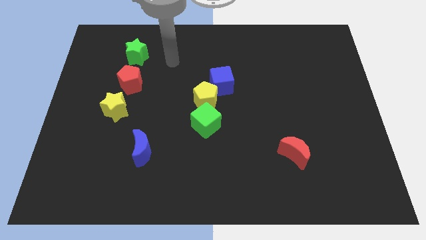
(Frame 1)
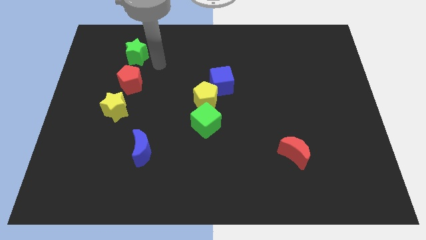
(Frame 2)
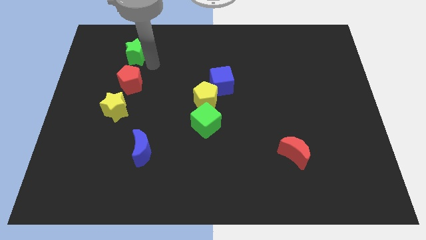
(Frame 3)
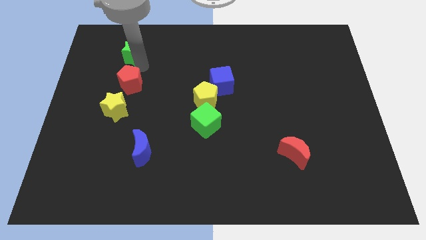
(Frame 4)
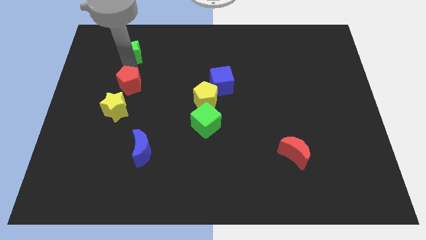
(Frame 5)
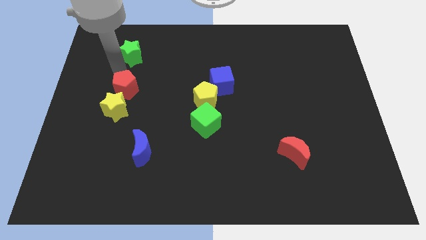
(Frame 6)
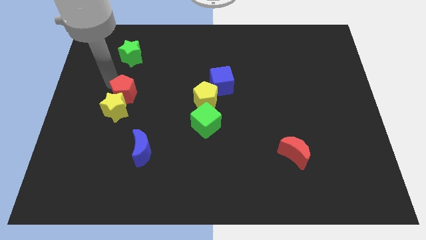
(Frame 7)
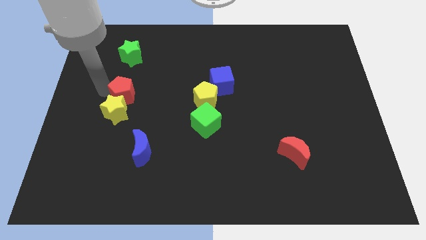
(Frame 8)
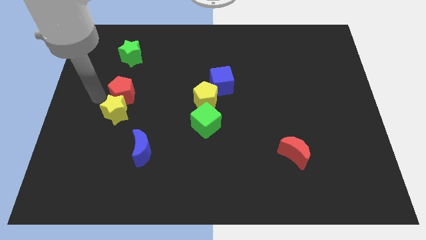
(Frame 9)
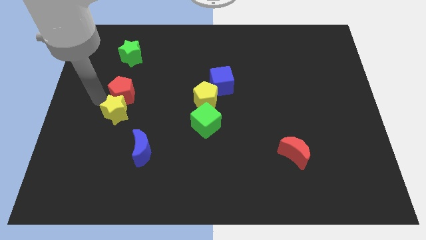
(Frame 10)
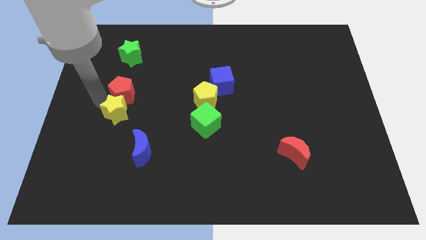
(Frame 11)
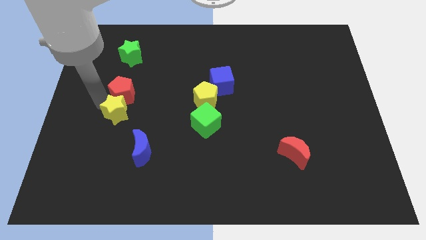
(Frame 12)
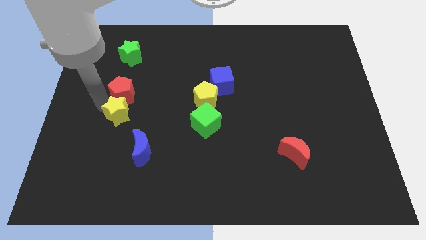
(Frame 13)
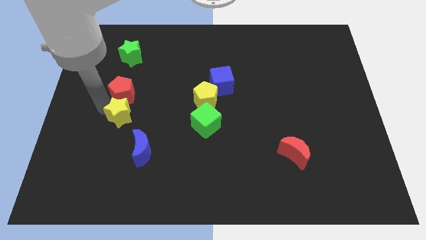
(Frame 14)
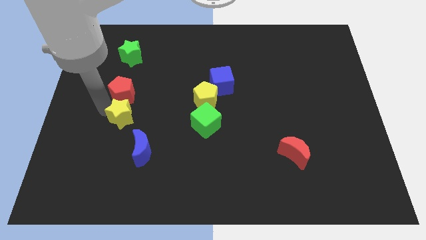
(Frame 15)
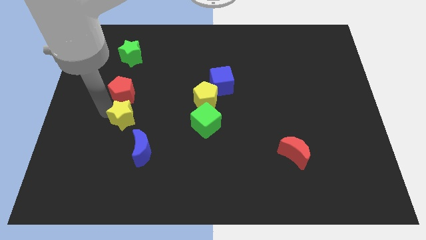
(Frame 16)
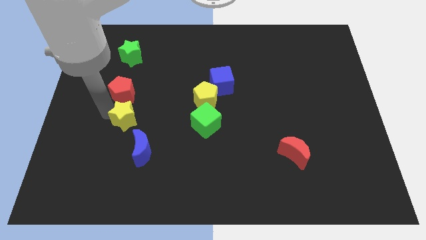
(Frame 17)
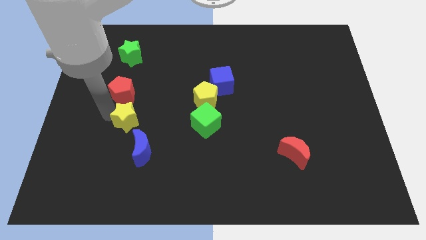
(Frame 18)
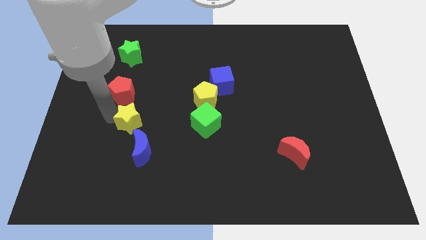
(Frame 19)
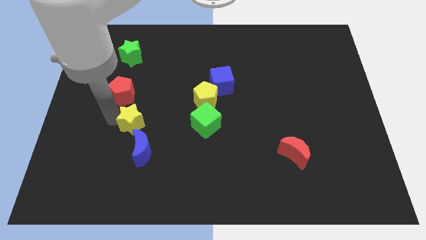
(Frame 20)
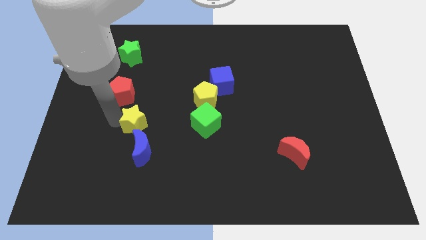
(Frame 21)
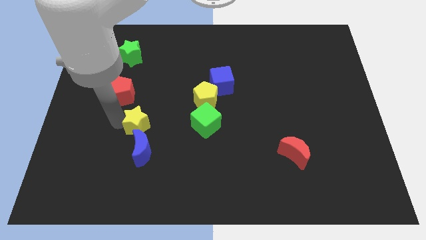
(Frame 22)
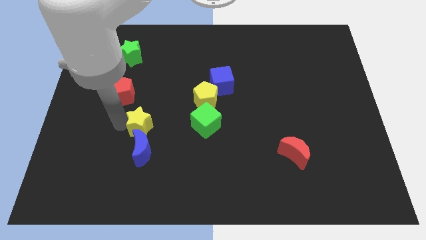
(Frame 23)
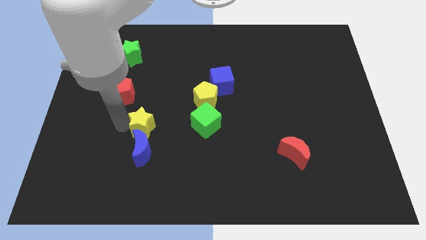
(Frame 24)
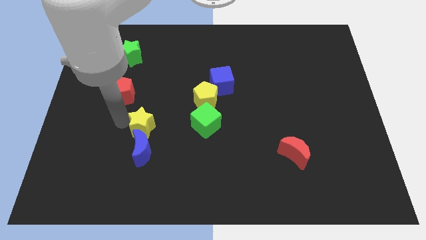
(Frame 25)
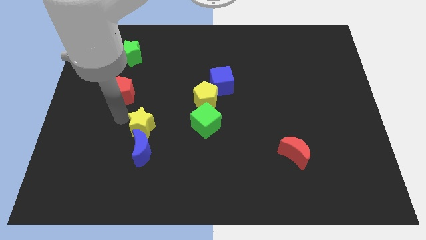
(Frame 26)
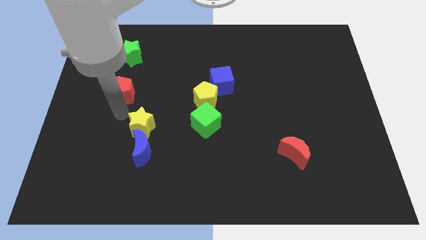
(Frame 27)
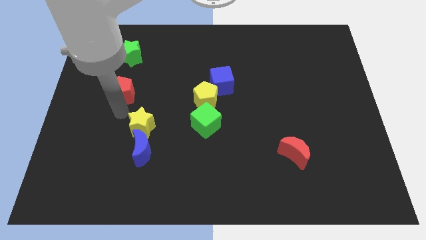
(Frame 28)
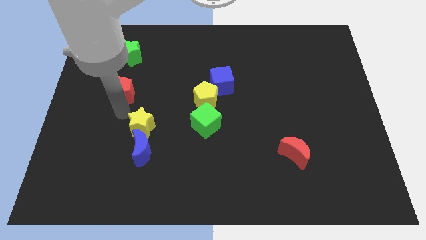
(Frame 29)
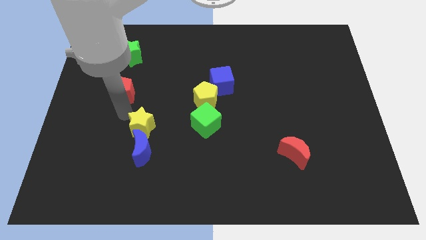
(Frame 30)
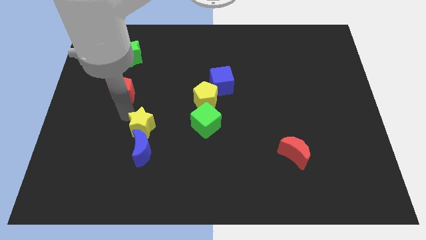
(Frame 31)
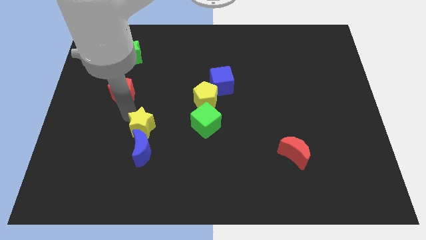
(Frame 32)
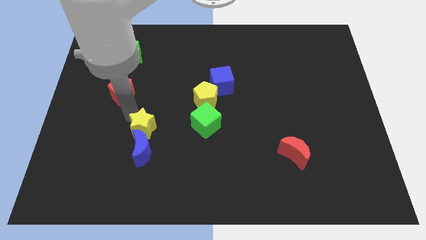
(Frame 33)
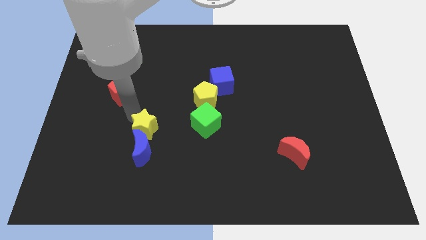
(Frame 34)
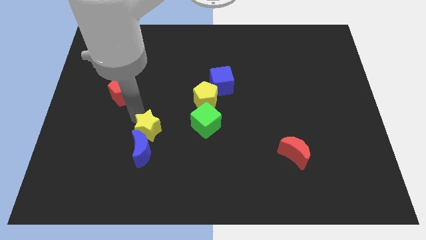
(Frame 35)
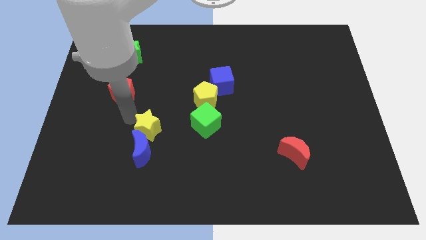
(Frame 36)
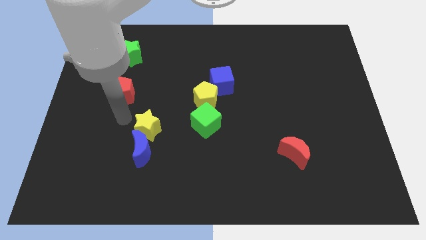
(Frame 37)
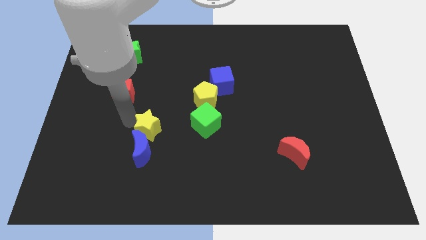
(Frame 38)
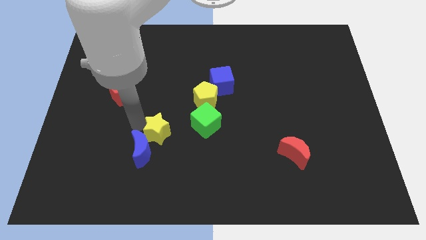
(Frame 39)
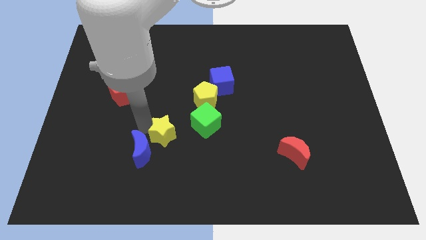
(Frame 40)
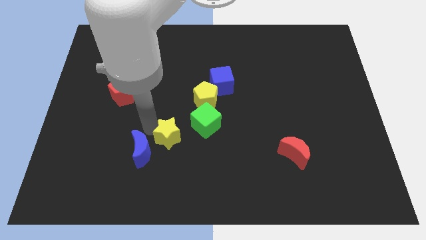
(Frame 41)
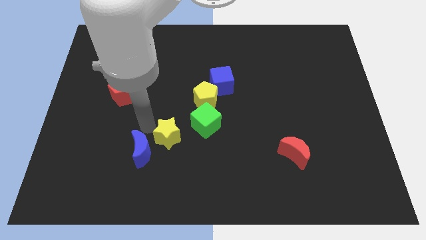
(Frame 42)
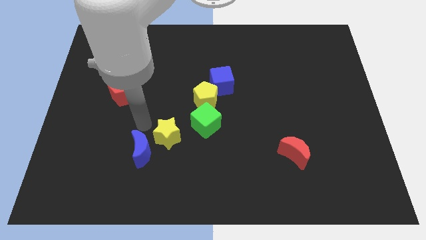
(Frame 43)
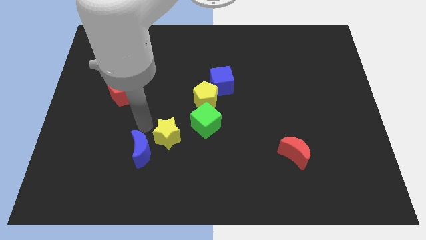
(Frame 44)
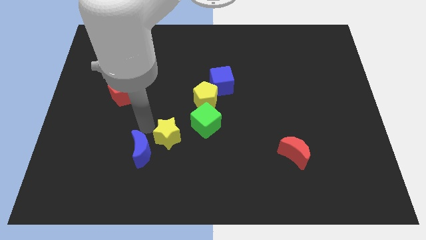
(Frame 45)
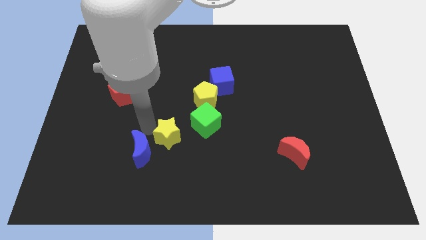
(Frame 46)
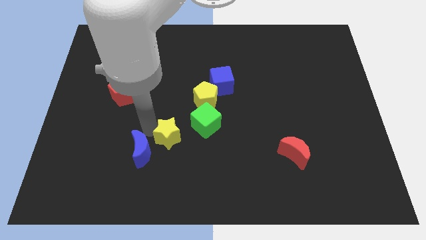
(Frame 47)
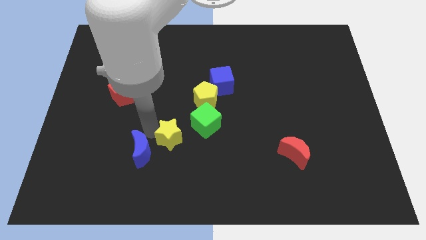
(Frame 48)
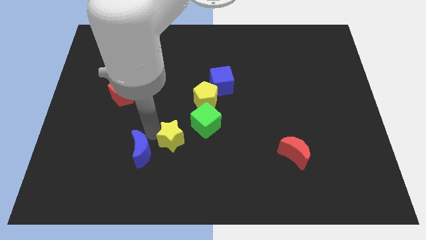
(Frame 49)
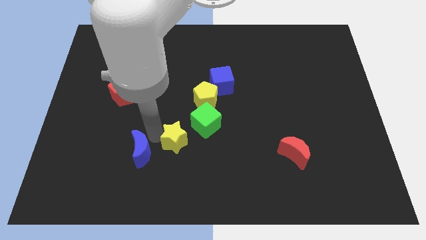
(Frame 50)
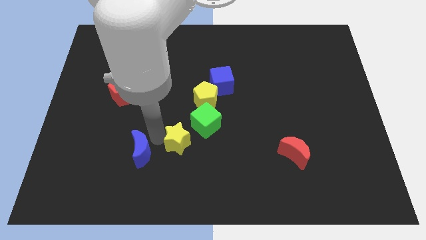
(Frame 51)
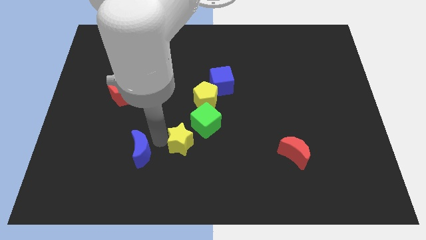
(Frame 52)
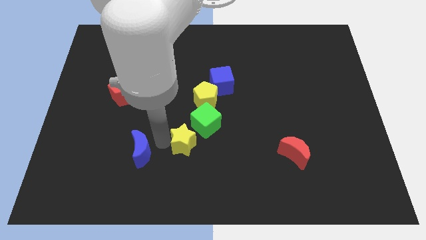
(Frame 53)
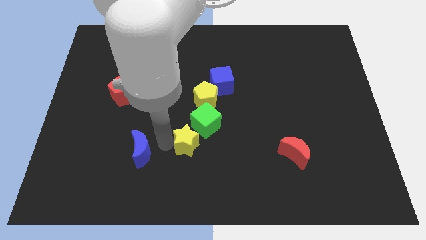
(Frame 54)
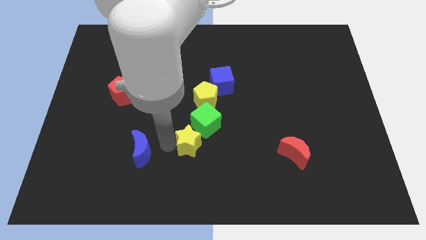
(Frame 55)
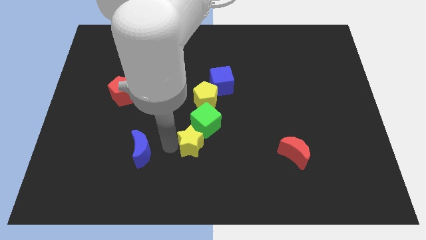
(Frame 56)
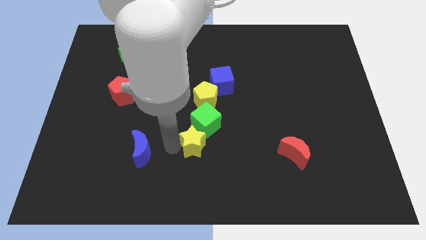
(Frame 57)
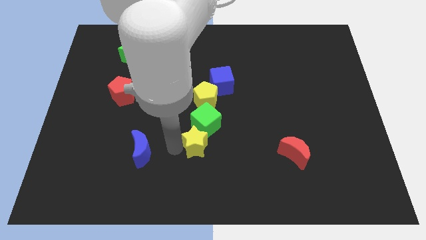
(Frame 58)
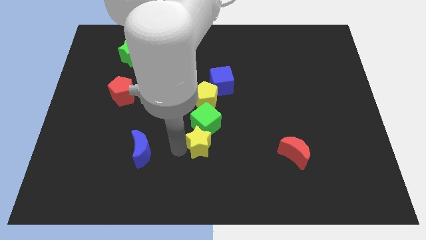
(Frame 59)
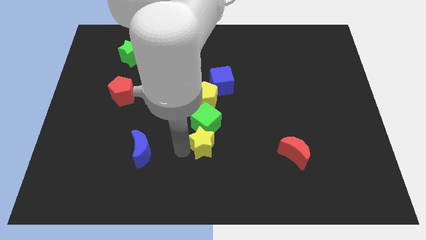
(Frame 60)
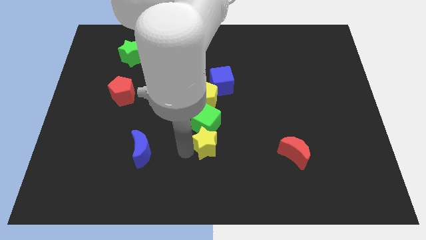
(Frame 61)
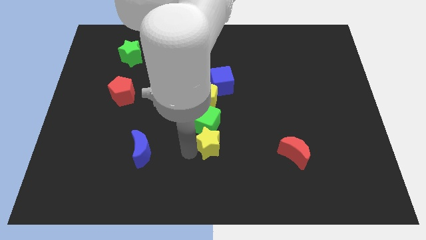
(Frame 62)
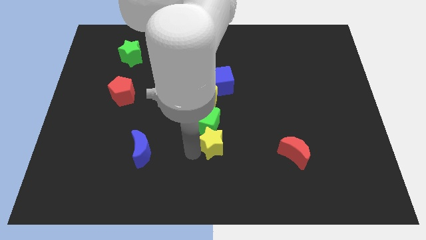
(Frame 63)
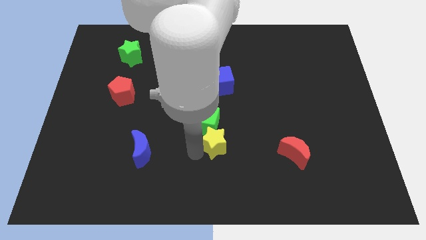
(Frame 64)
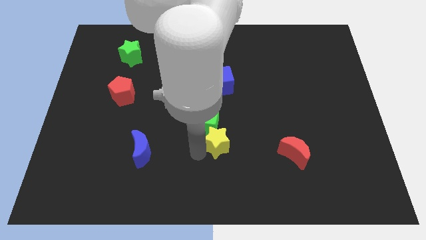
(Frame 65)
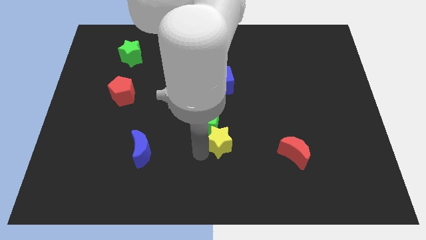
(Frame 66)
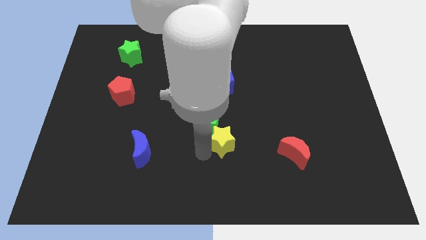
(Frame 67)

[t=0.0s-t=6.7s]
push the yellow star right

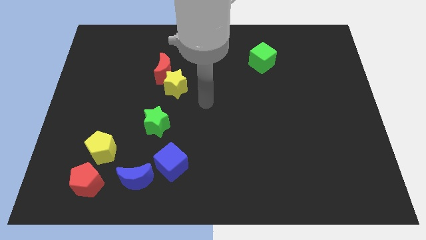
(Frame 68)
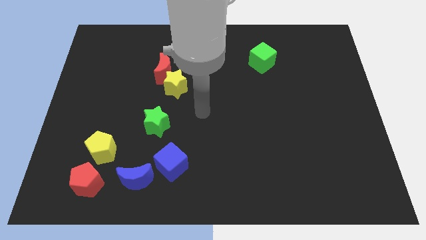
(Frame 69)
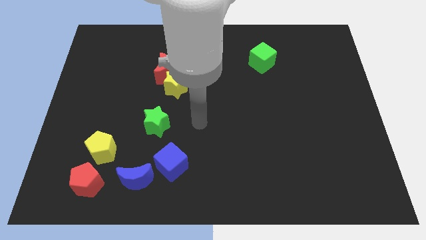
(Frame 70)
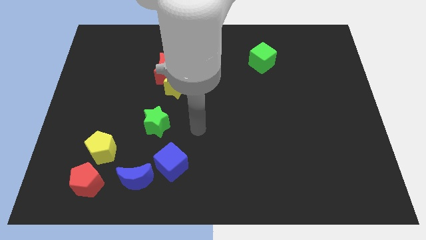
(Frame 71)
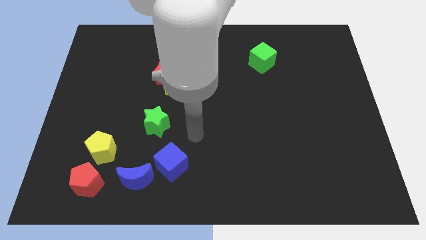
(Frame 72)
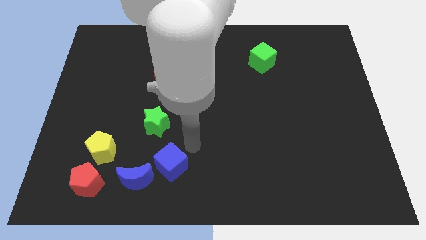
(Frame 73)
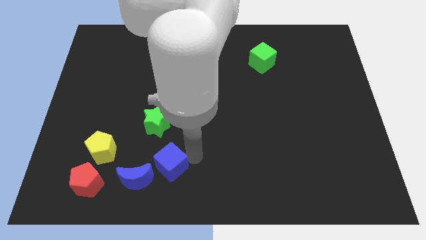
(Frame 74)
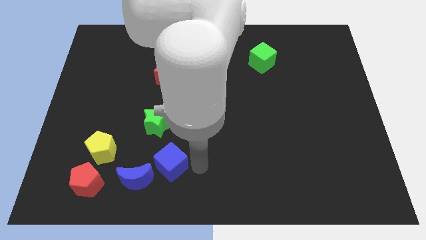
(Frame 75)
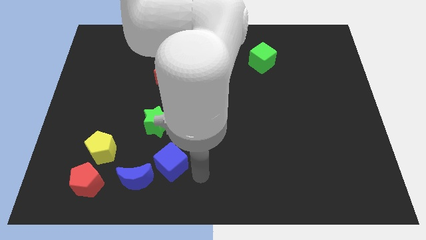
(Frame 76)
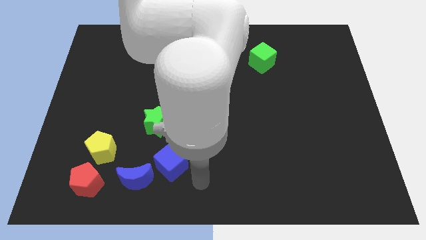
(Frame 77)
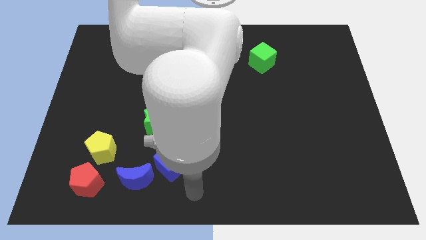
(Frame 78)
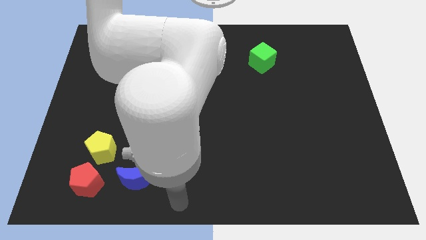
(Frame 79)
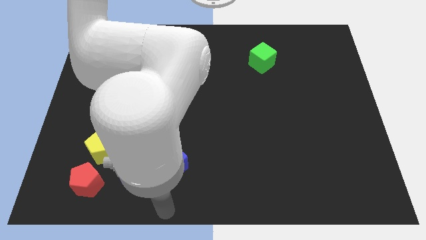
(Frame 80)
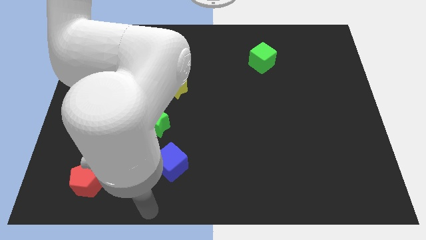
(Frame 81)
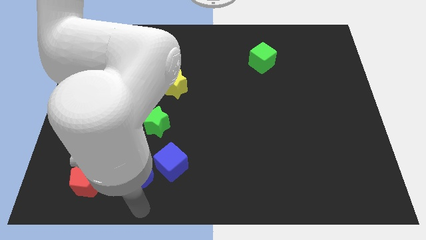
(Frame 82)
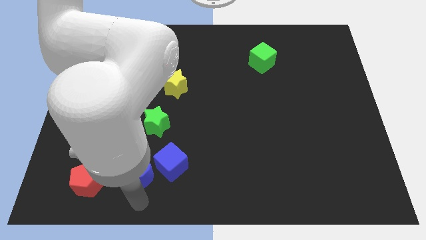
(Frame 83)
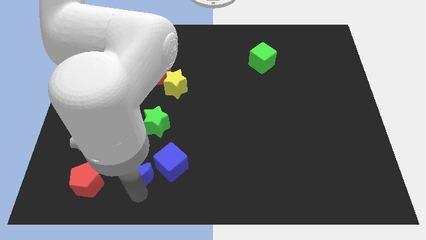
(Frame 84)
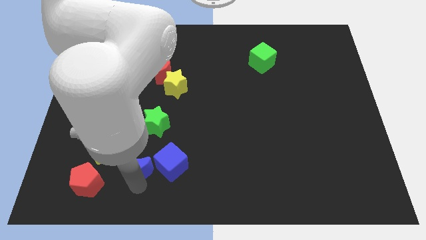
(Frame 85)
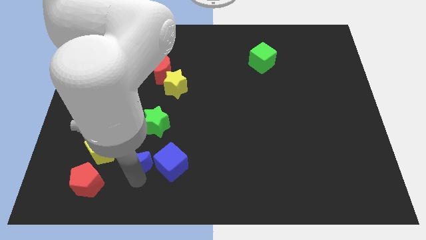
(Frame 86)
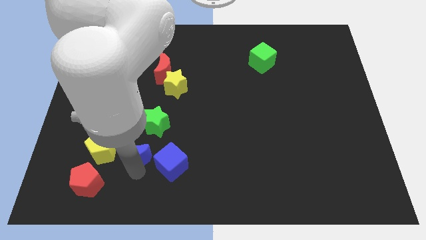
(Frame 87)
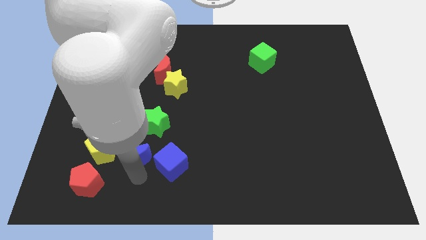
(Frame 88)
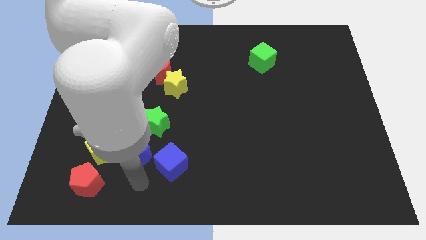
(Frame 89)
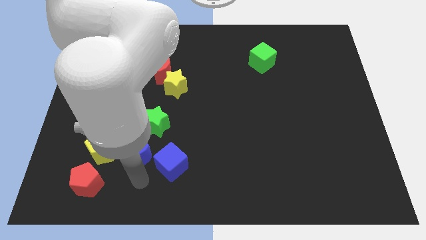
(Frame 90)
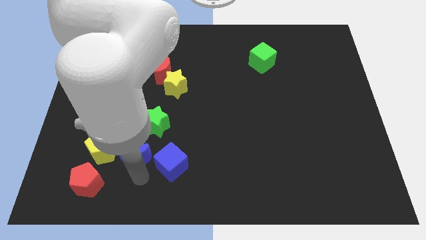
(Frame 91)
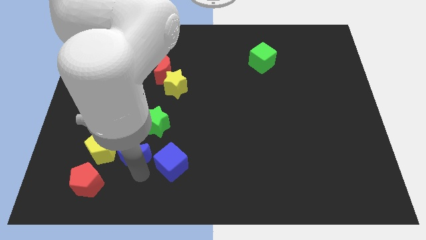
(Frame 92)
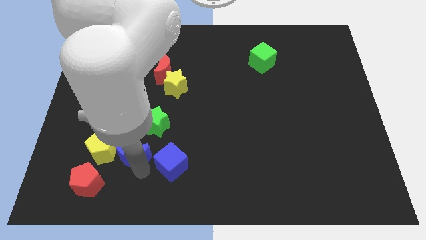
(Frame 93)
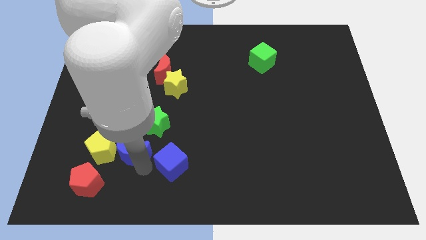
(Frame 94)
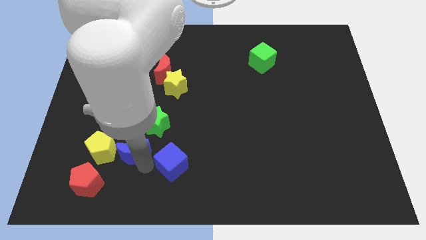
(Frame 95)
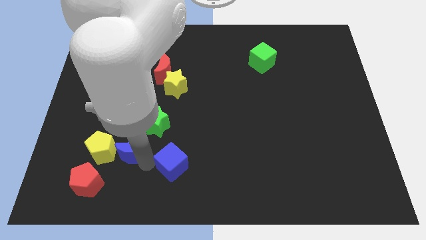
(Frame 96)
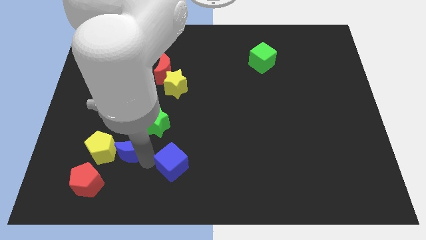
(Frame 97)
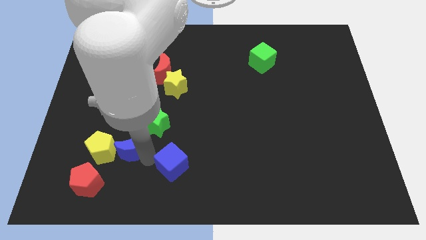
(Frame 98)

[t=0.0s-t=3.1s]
slide the blue moon up a little
